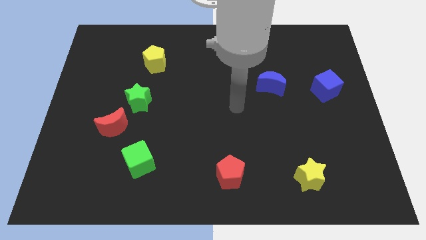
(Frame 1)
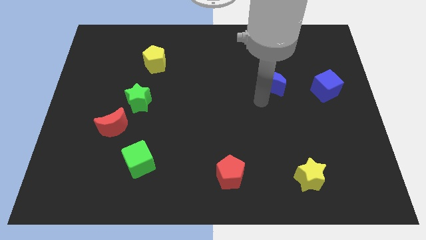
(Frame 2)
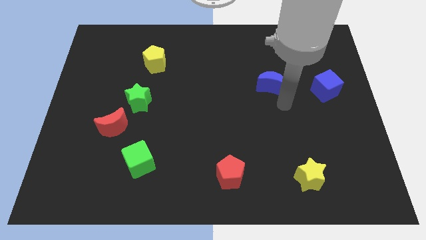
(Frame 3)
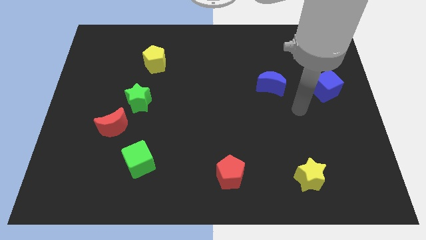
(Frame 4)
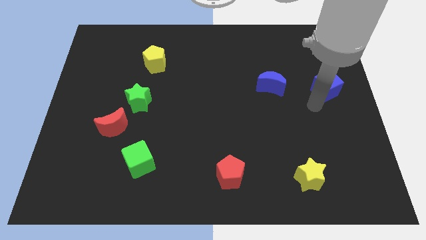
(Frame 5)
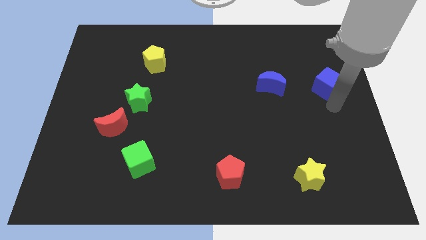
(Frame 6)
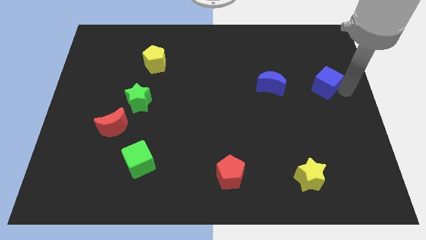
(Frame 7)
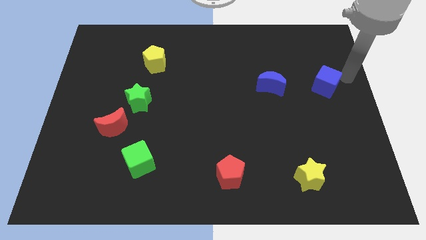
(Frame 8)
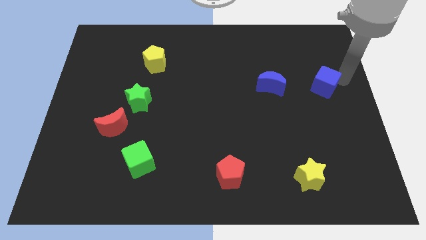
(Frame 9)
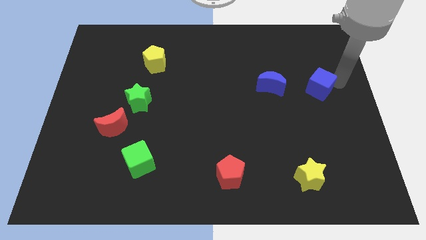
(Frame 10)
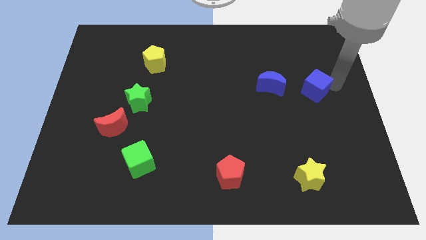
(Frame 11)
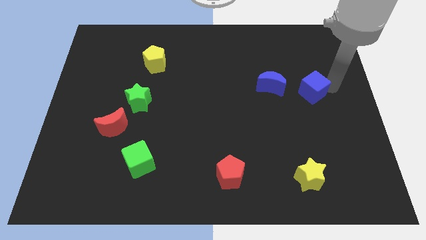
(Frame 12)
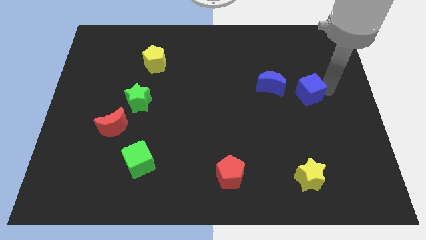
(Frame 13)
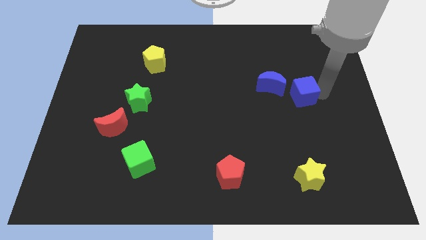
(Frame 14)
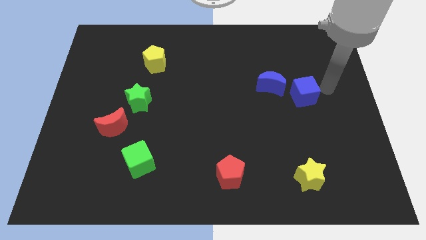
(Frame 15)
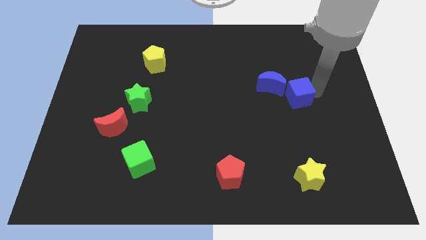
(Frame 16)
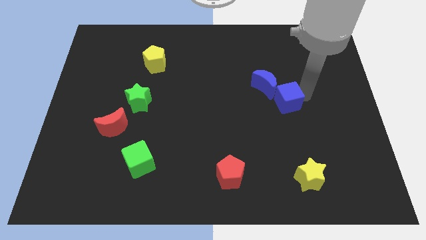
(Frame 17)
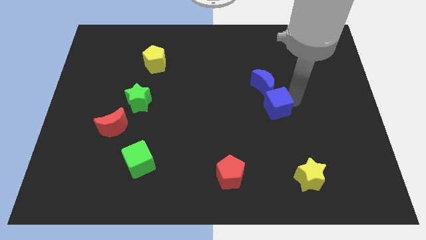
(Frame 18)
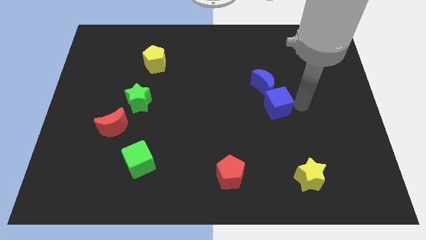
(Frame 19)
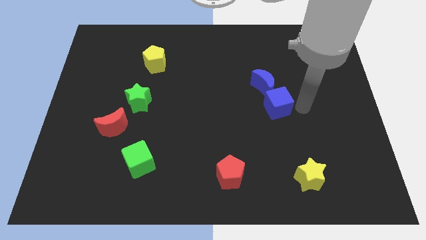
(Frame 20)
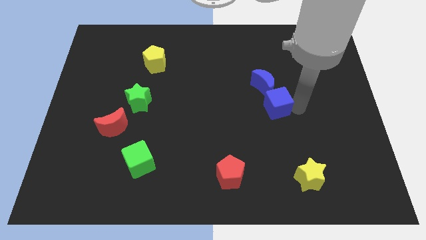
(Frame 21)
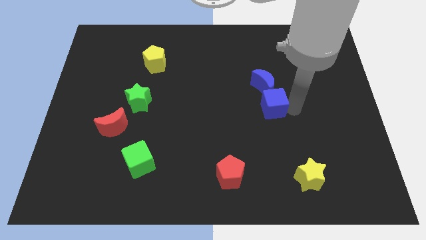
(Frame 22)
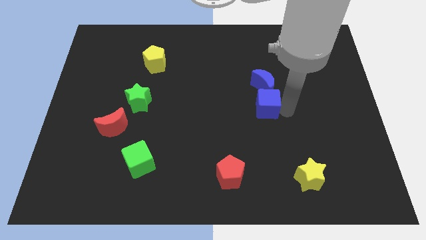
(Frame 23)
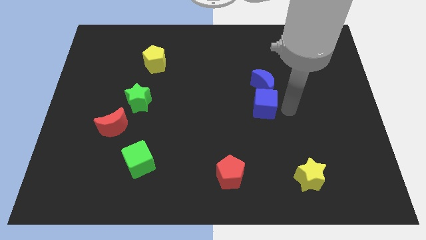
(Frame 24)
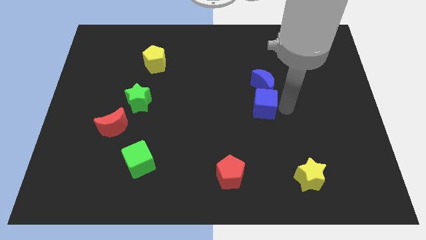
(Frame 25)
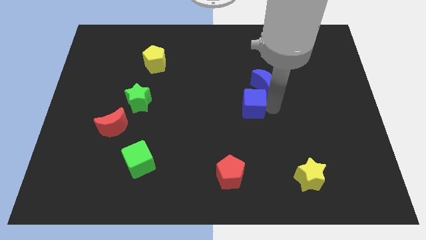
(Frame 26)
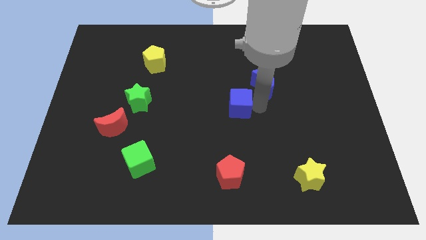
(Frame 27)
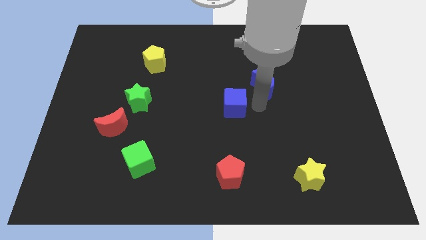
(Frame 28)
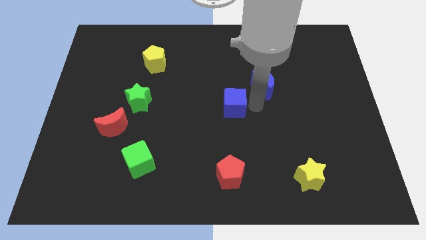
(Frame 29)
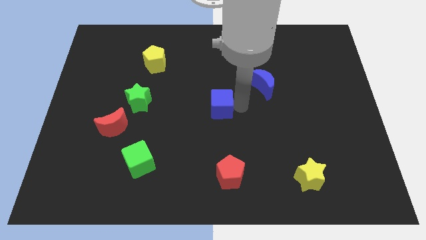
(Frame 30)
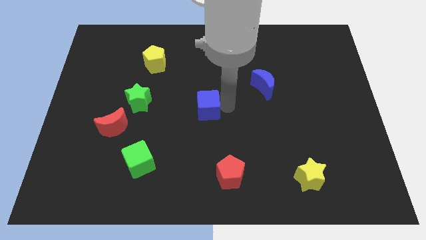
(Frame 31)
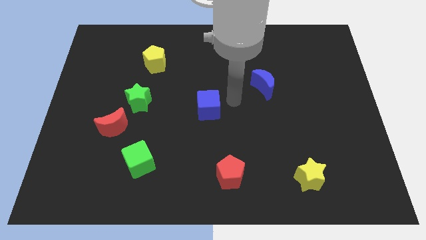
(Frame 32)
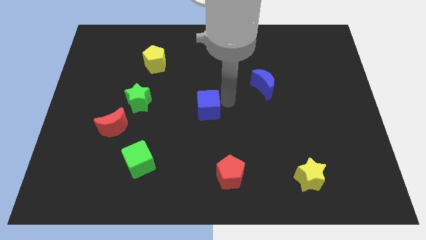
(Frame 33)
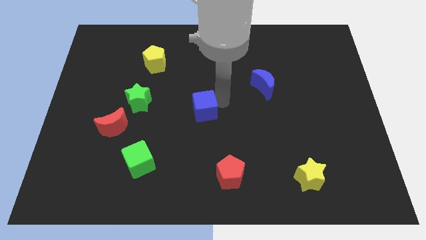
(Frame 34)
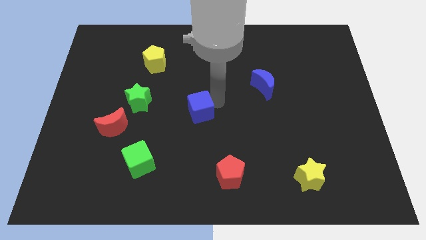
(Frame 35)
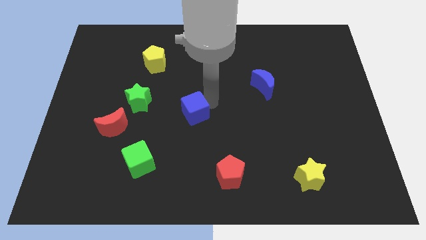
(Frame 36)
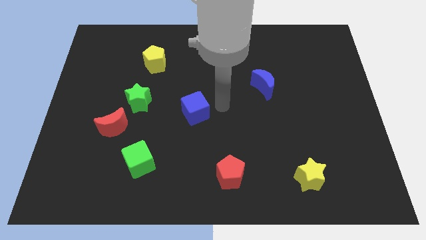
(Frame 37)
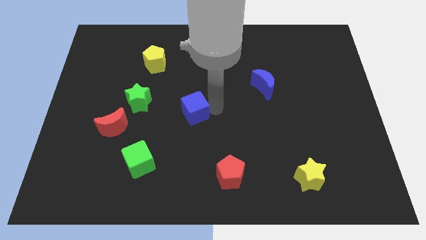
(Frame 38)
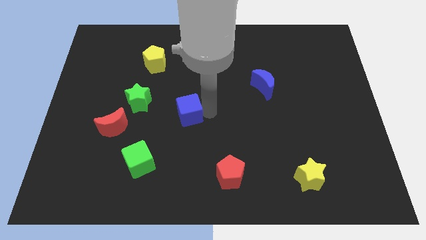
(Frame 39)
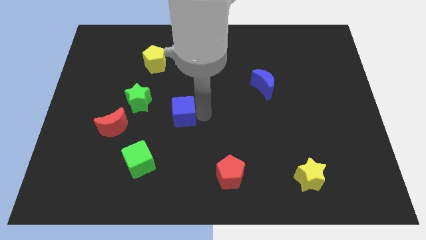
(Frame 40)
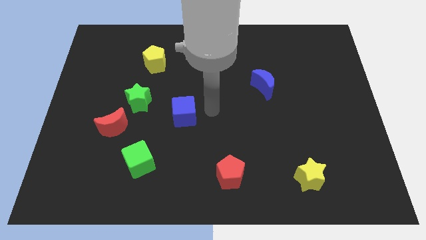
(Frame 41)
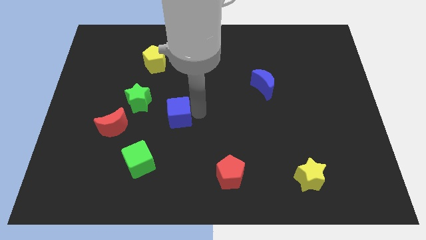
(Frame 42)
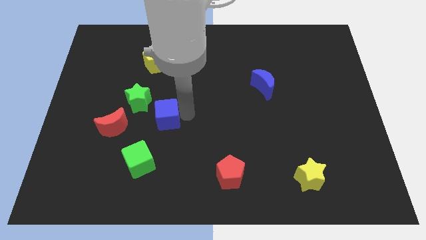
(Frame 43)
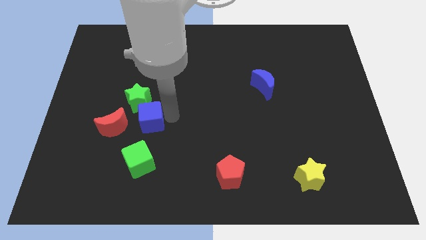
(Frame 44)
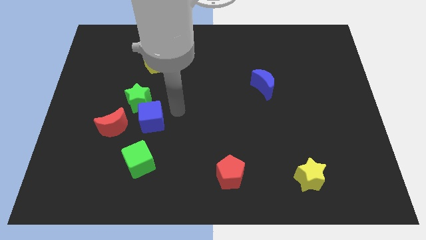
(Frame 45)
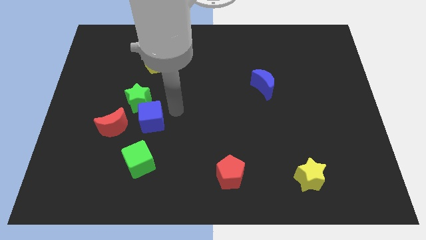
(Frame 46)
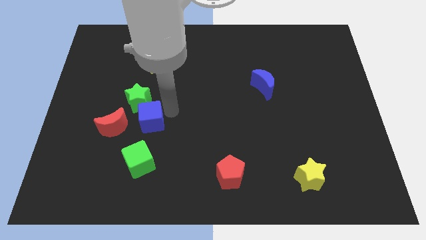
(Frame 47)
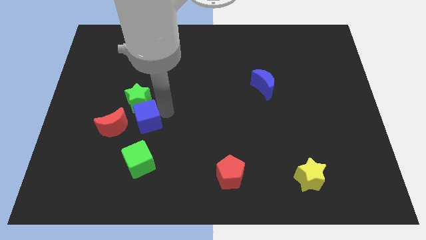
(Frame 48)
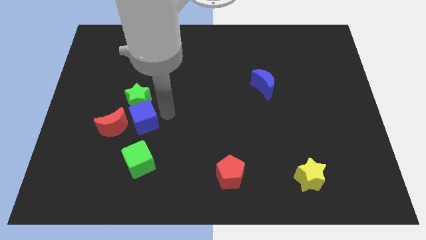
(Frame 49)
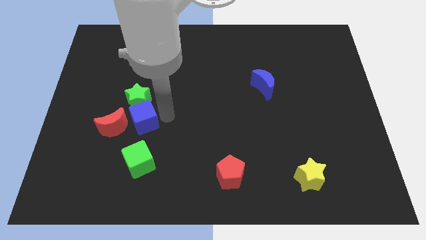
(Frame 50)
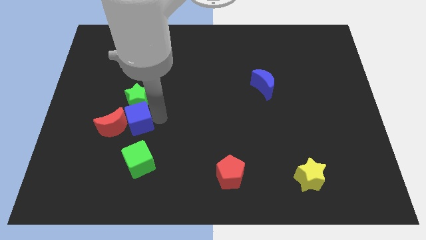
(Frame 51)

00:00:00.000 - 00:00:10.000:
slide the blue cube towards the red moon

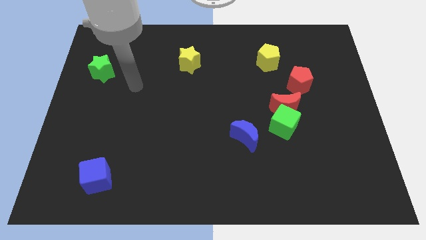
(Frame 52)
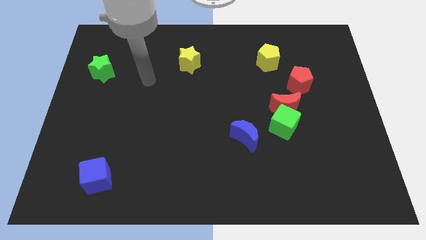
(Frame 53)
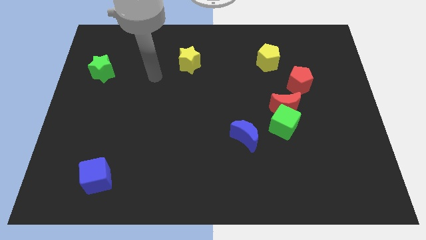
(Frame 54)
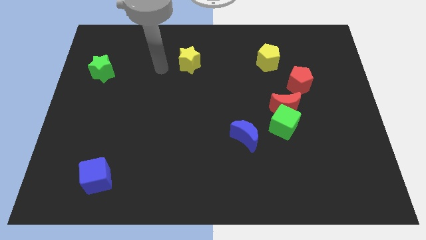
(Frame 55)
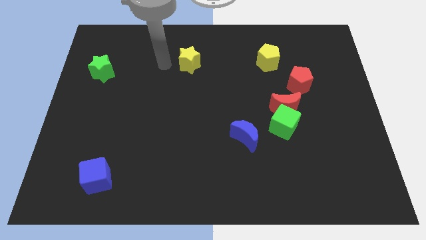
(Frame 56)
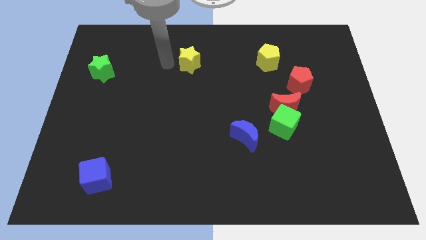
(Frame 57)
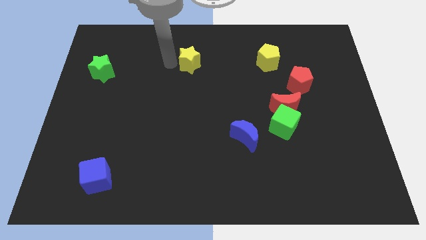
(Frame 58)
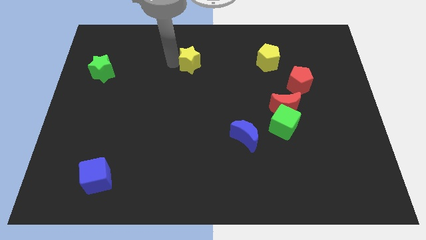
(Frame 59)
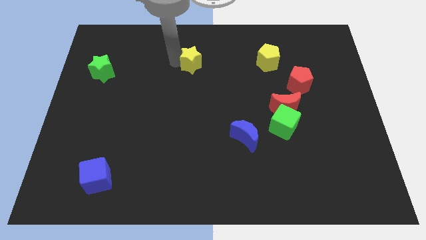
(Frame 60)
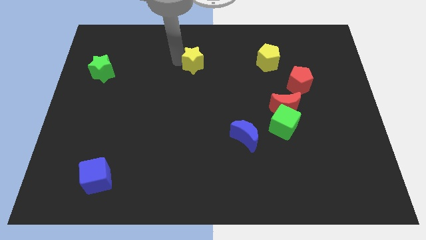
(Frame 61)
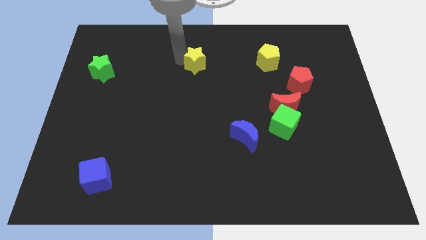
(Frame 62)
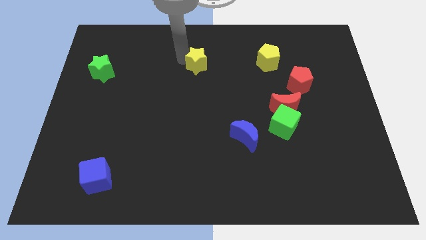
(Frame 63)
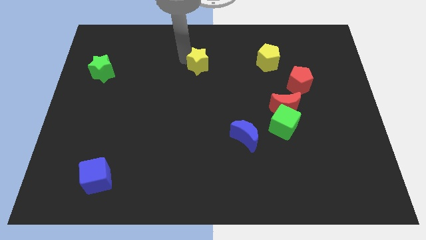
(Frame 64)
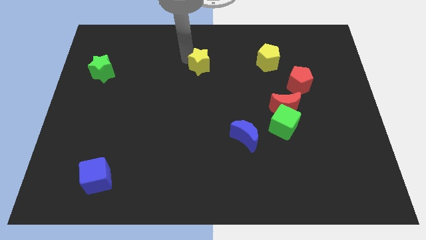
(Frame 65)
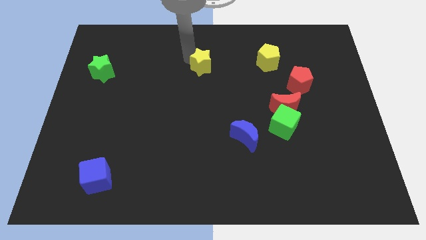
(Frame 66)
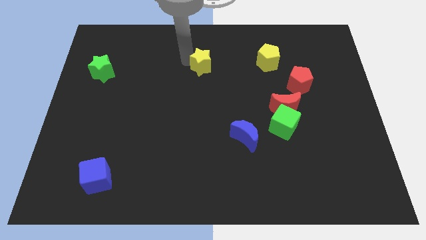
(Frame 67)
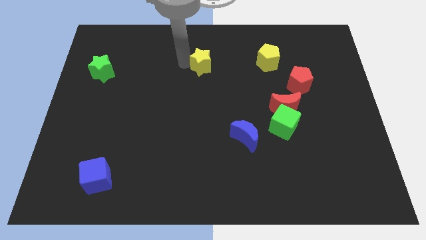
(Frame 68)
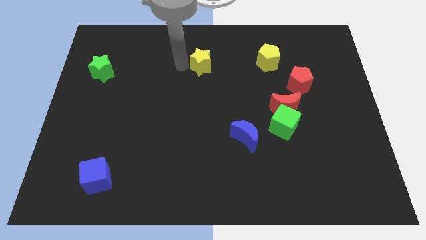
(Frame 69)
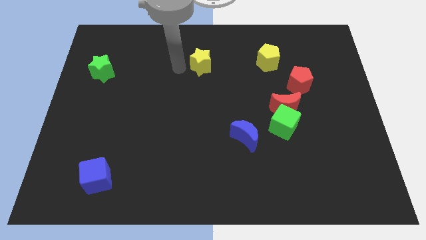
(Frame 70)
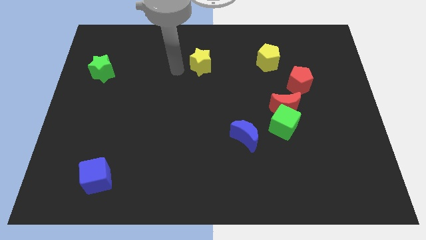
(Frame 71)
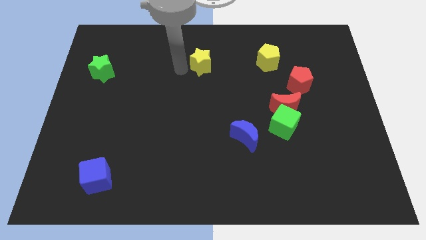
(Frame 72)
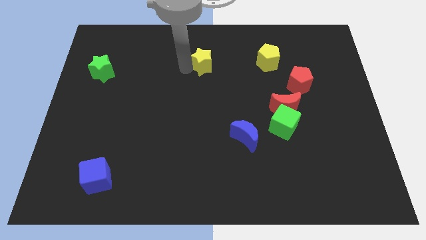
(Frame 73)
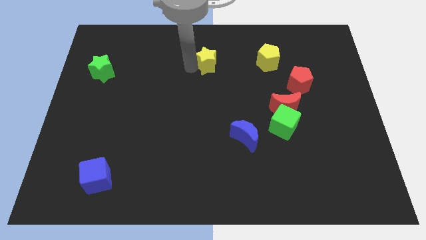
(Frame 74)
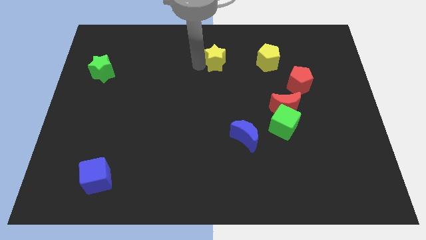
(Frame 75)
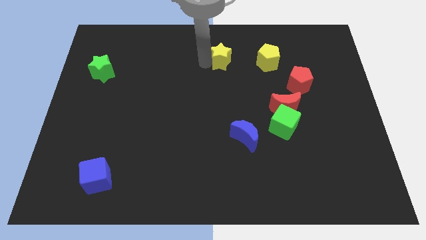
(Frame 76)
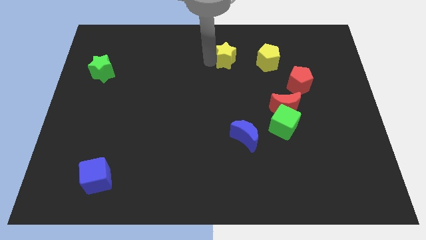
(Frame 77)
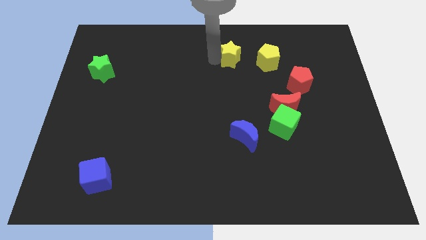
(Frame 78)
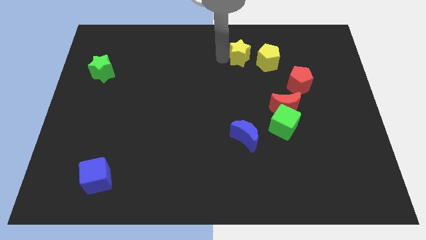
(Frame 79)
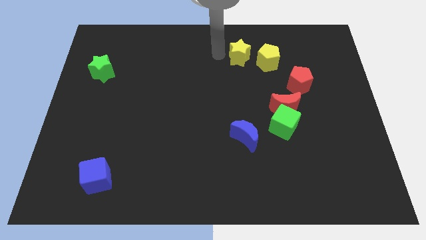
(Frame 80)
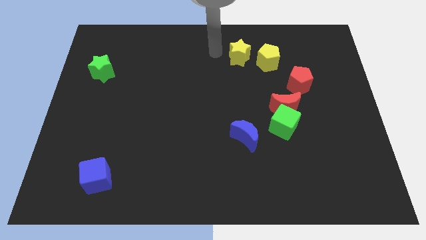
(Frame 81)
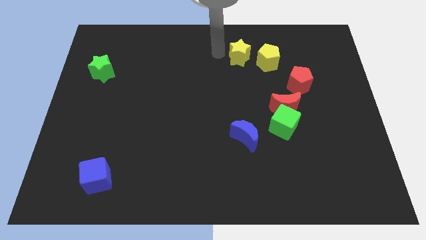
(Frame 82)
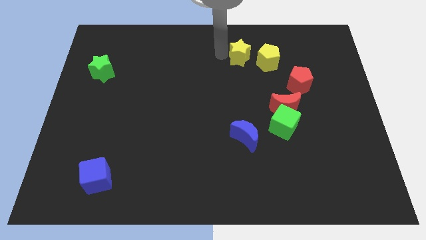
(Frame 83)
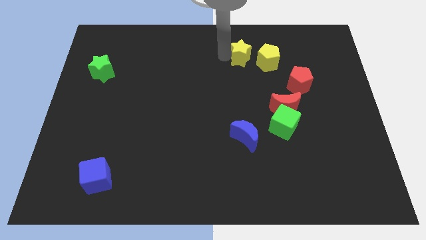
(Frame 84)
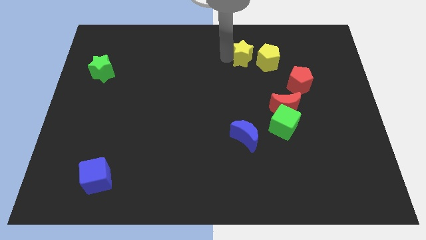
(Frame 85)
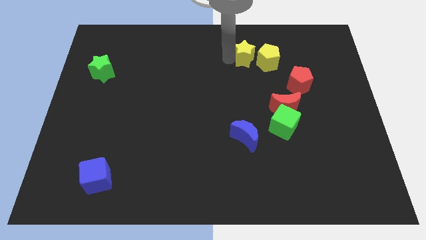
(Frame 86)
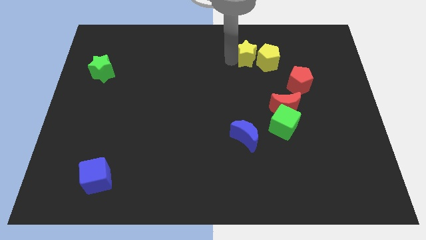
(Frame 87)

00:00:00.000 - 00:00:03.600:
slide the yellow star close to the yellow pentagon
